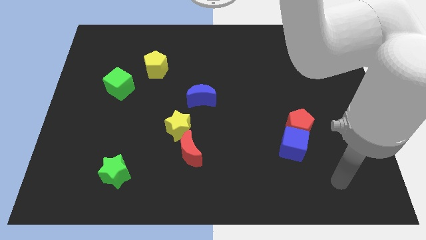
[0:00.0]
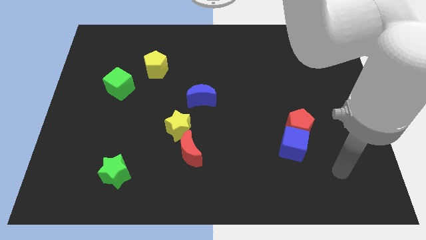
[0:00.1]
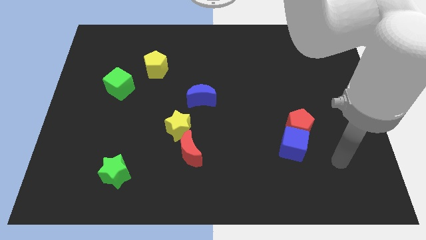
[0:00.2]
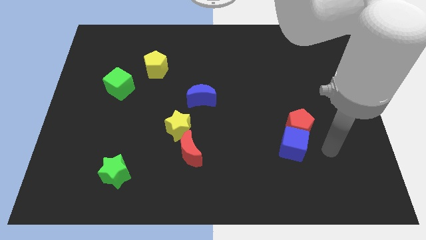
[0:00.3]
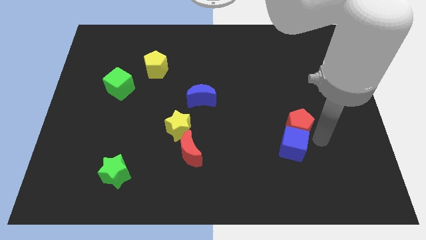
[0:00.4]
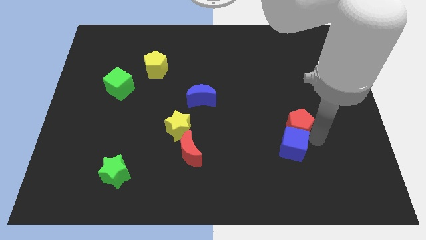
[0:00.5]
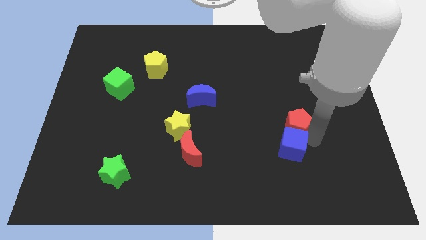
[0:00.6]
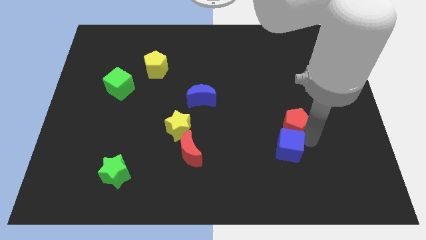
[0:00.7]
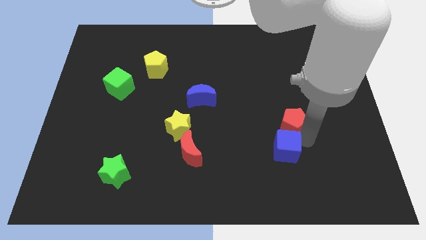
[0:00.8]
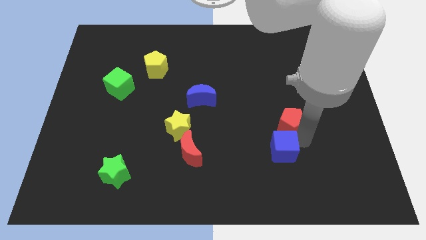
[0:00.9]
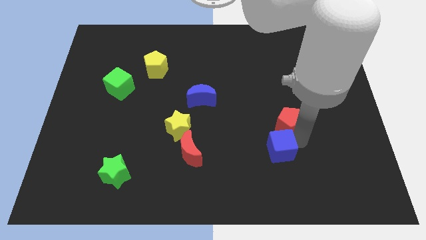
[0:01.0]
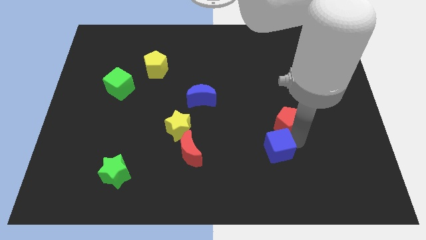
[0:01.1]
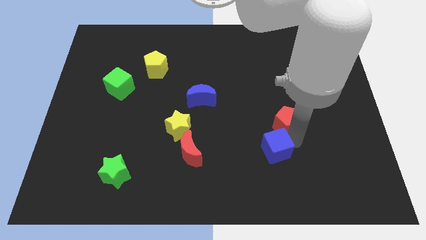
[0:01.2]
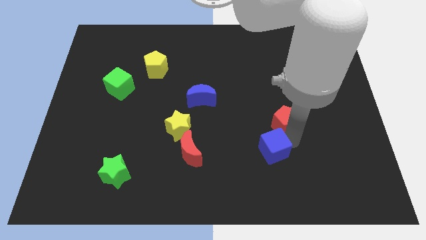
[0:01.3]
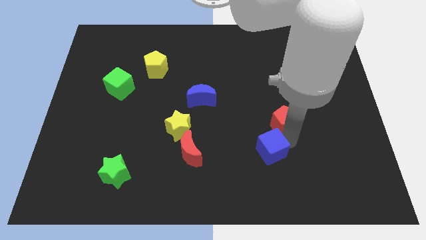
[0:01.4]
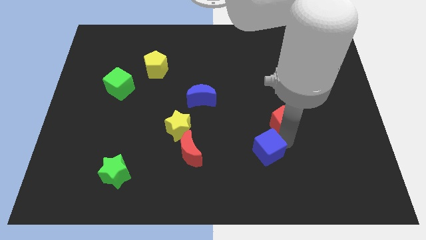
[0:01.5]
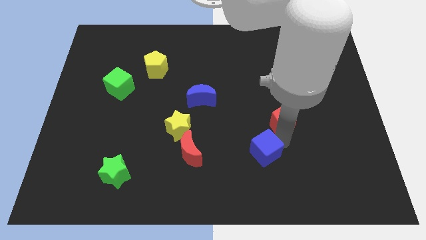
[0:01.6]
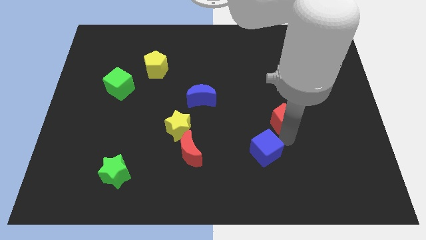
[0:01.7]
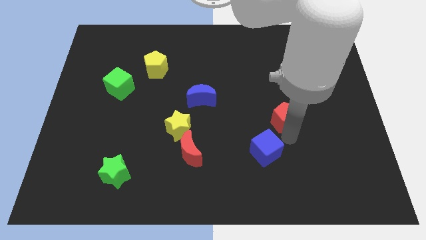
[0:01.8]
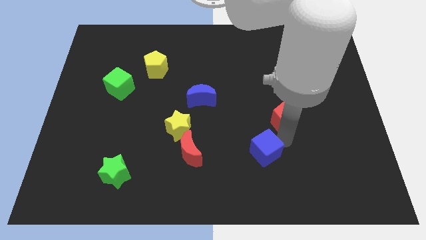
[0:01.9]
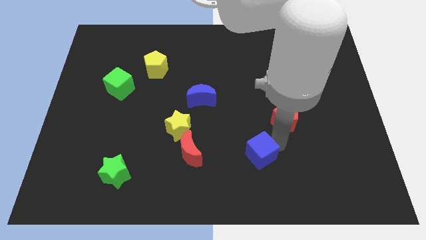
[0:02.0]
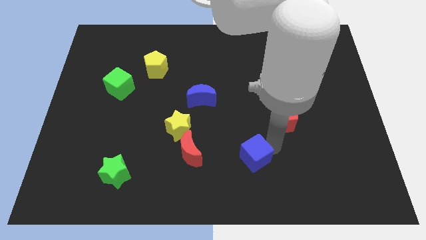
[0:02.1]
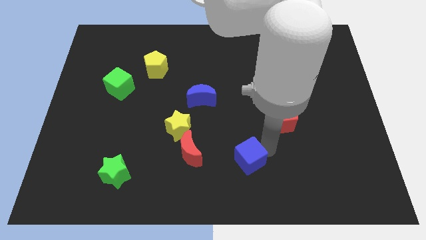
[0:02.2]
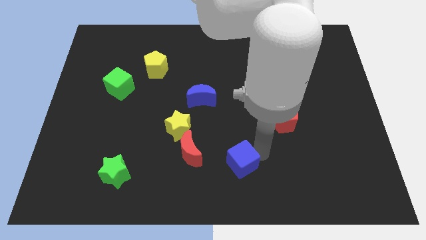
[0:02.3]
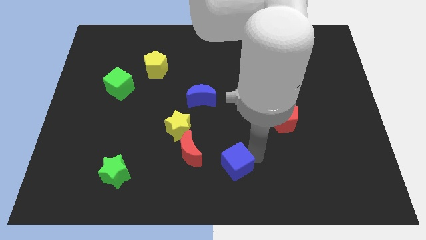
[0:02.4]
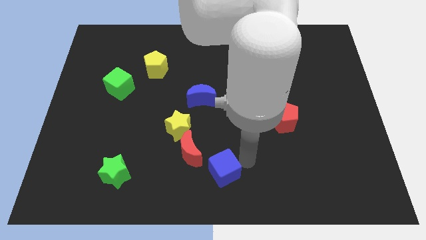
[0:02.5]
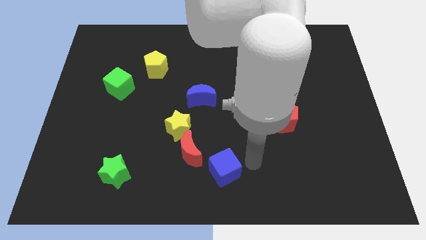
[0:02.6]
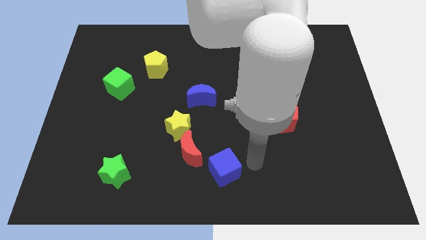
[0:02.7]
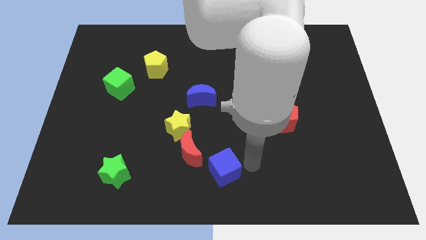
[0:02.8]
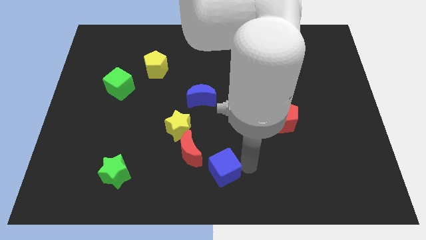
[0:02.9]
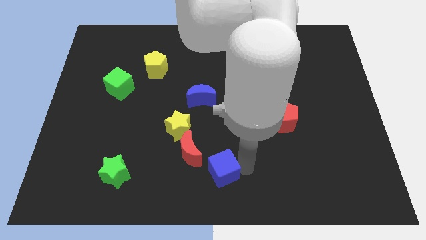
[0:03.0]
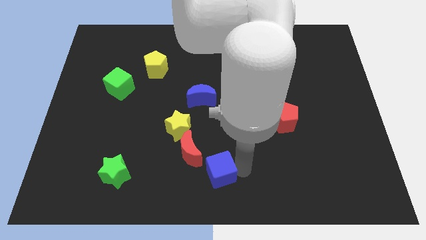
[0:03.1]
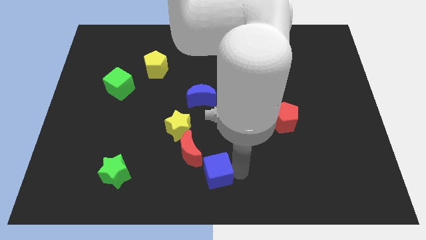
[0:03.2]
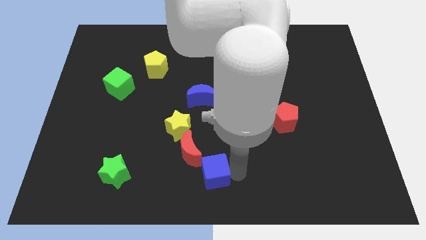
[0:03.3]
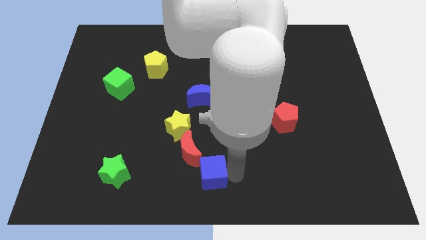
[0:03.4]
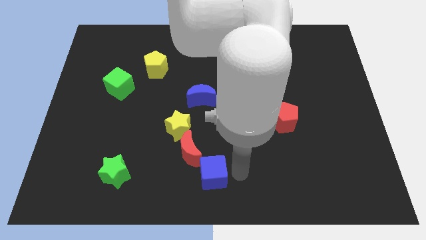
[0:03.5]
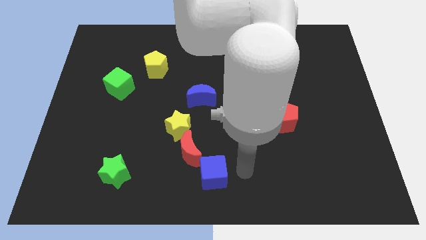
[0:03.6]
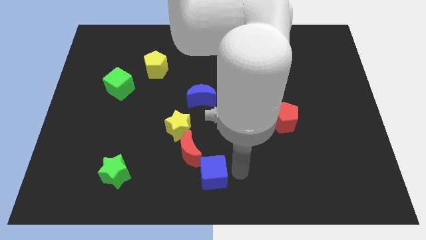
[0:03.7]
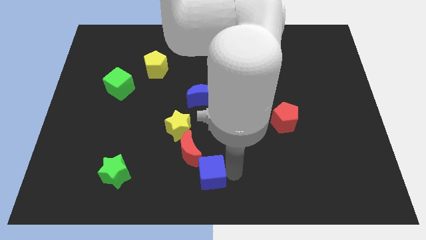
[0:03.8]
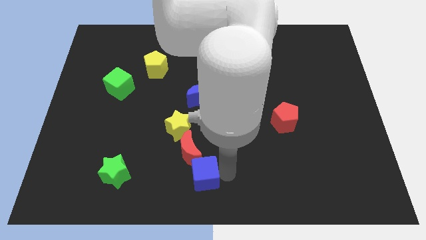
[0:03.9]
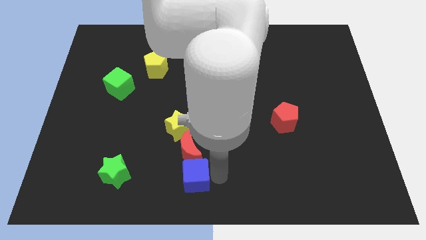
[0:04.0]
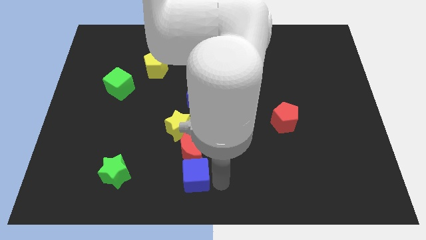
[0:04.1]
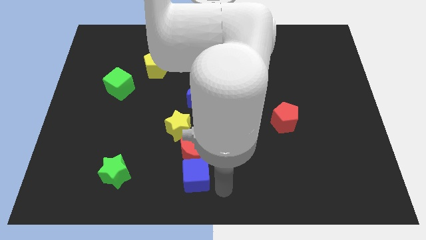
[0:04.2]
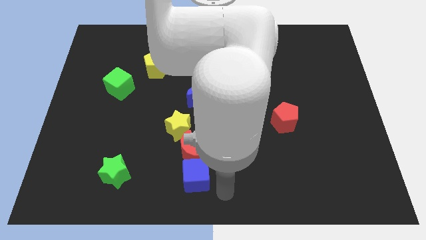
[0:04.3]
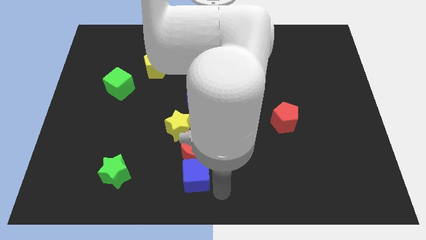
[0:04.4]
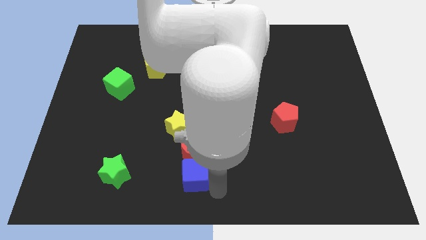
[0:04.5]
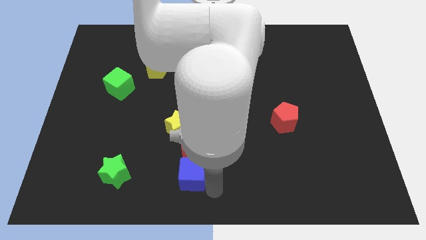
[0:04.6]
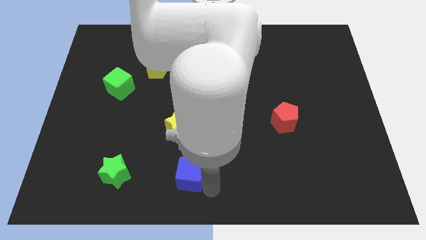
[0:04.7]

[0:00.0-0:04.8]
slide the blue cube to the left

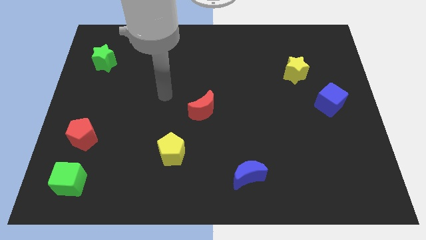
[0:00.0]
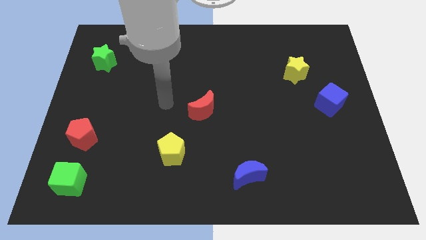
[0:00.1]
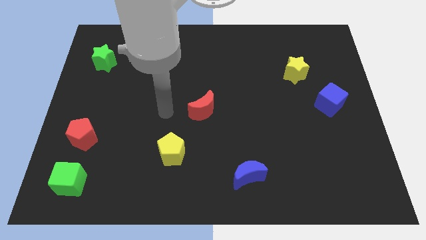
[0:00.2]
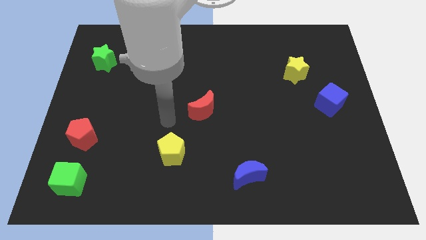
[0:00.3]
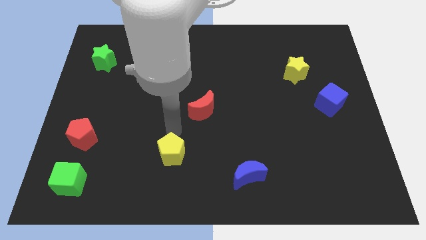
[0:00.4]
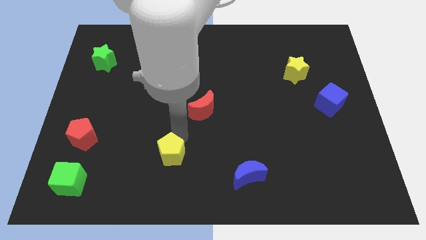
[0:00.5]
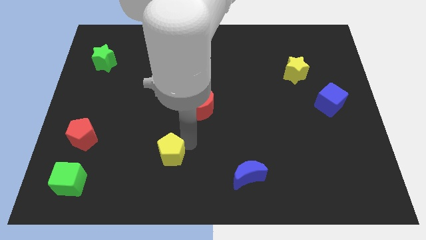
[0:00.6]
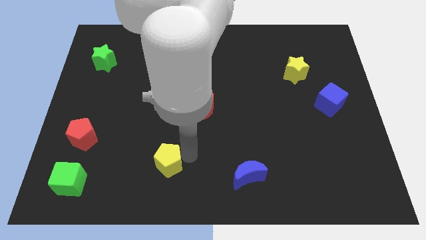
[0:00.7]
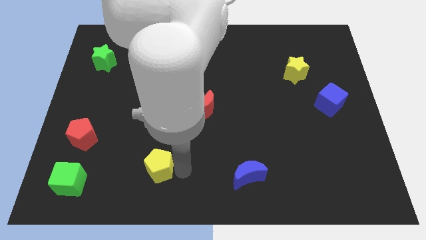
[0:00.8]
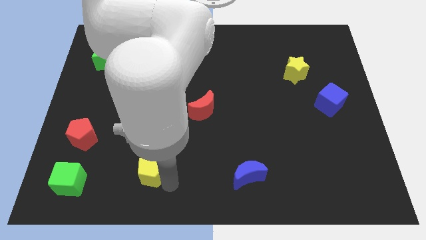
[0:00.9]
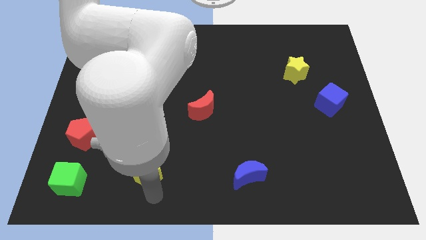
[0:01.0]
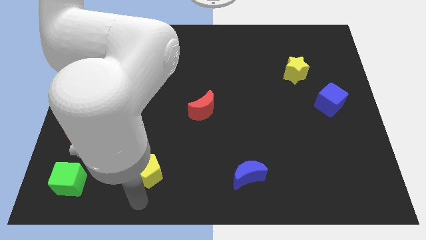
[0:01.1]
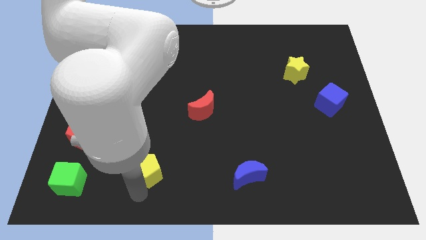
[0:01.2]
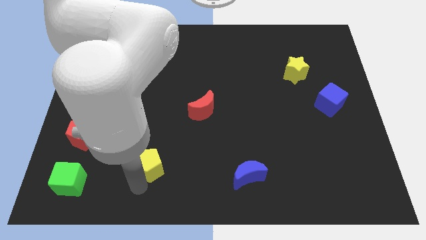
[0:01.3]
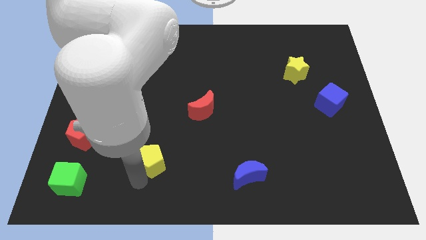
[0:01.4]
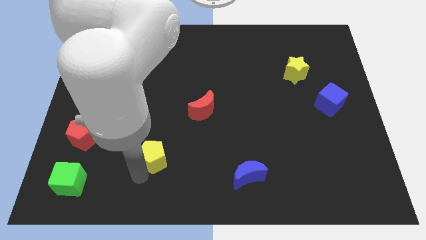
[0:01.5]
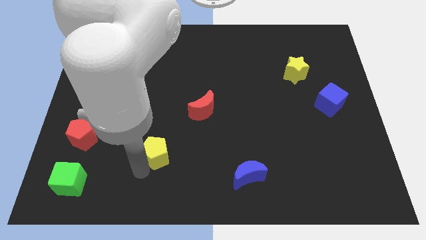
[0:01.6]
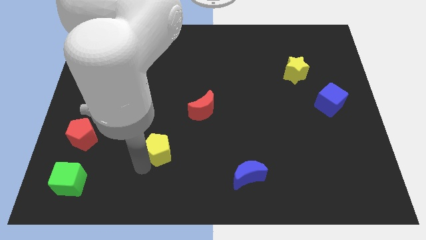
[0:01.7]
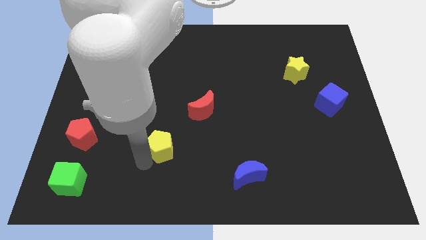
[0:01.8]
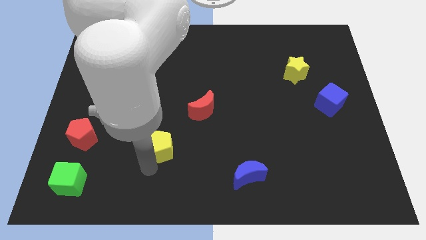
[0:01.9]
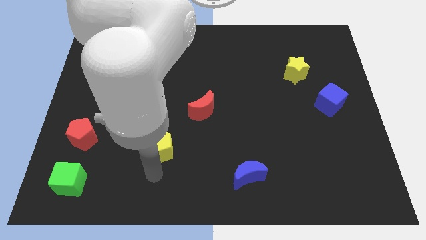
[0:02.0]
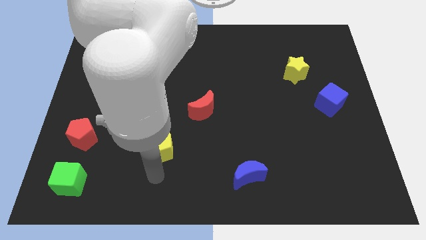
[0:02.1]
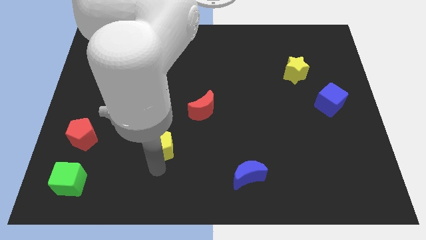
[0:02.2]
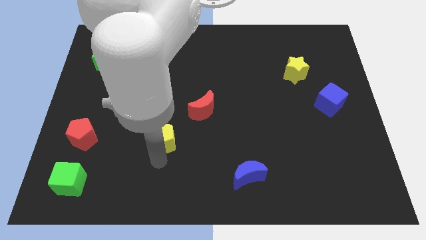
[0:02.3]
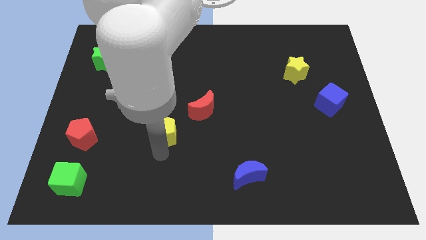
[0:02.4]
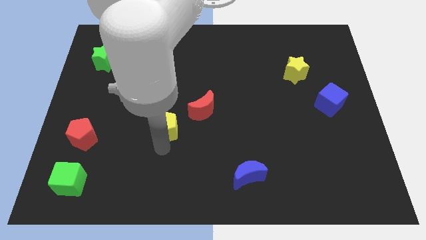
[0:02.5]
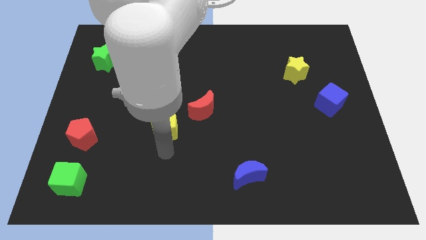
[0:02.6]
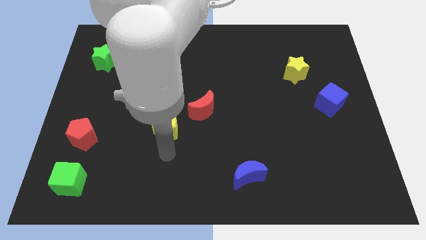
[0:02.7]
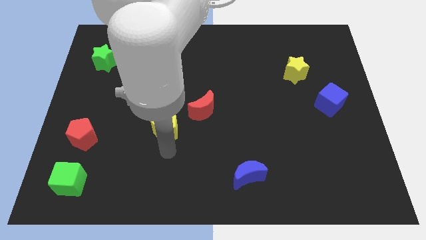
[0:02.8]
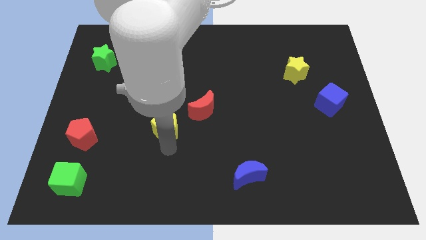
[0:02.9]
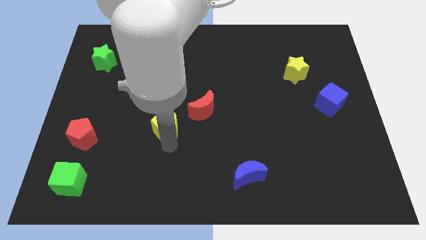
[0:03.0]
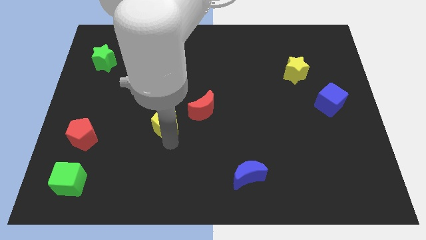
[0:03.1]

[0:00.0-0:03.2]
slightly slide the yellow pentagon up
